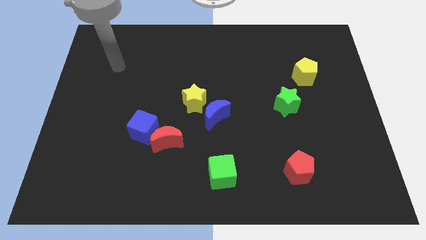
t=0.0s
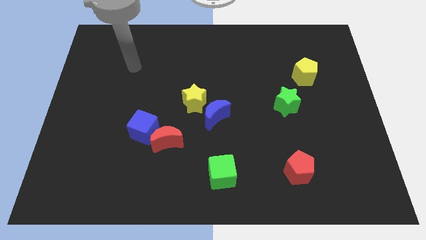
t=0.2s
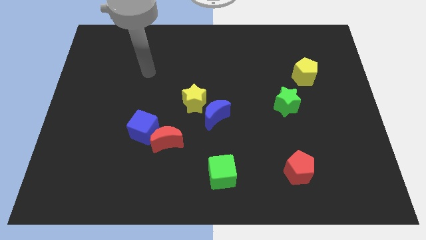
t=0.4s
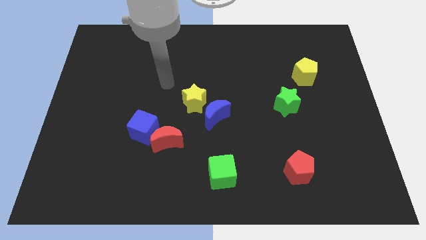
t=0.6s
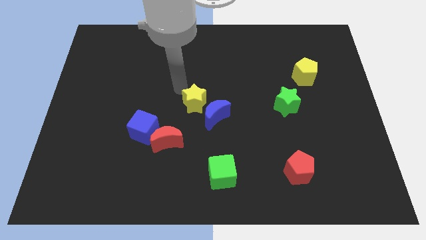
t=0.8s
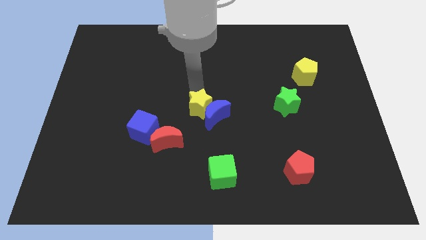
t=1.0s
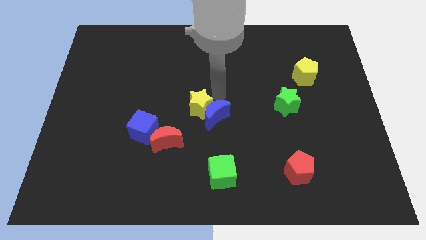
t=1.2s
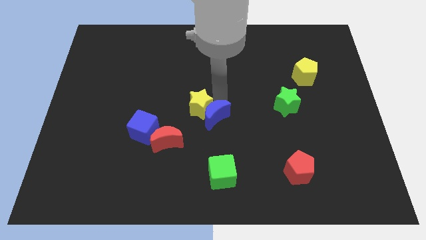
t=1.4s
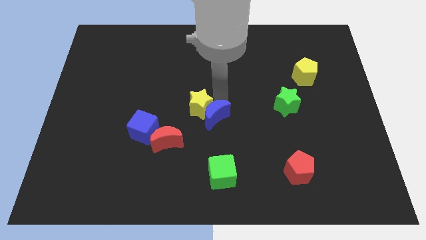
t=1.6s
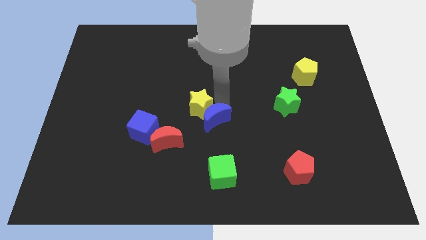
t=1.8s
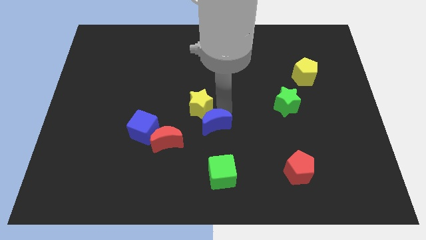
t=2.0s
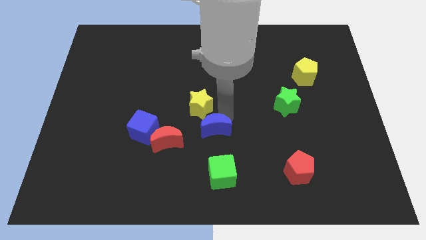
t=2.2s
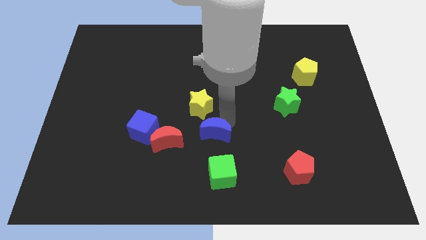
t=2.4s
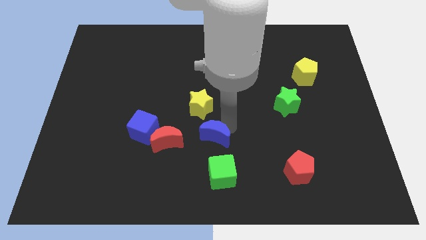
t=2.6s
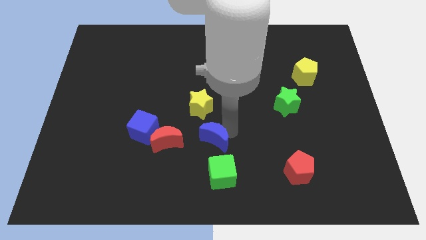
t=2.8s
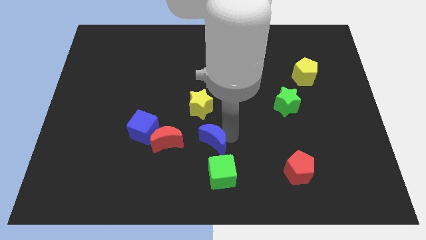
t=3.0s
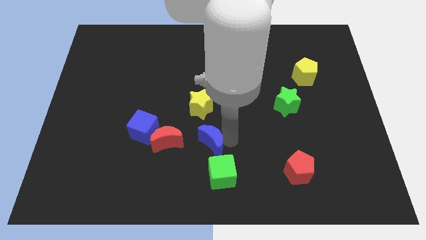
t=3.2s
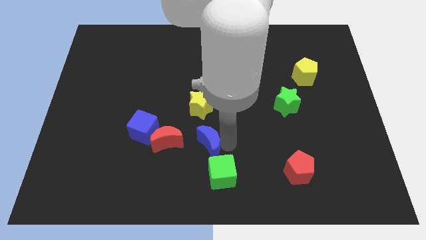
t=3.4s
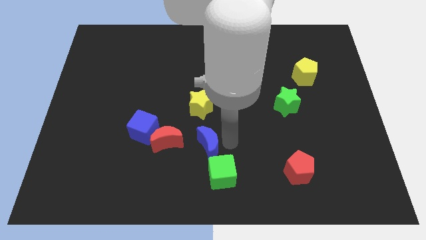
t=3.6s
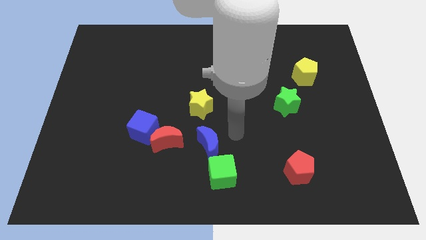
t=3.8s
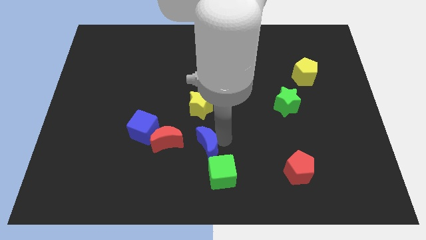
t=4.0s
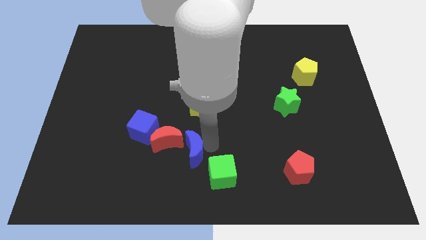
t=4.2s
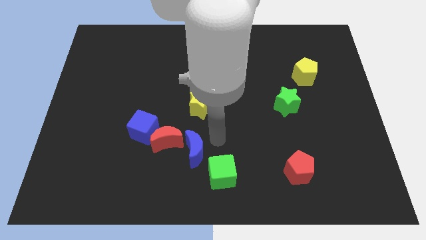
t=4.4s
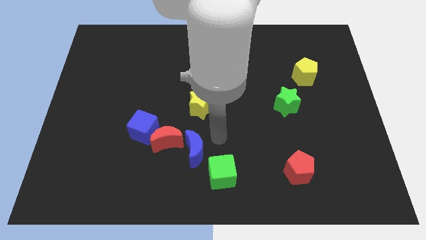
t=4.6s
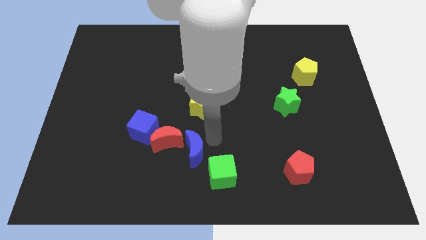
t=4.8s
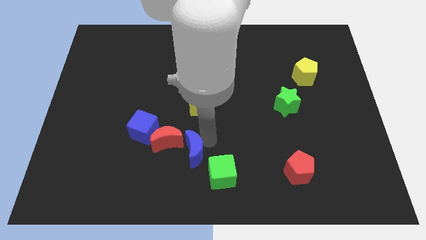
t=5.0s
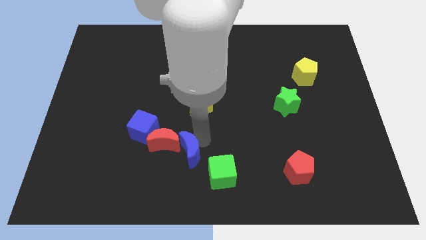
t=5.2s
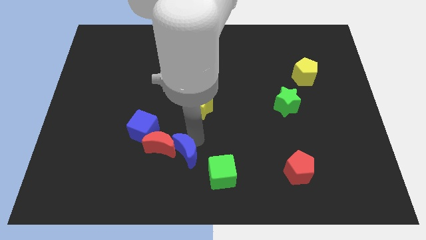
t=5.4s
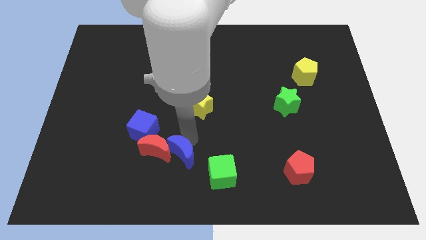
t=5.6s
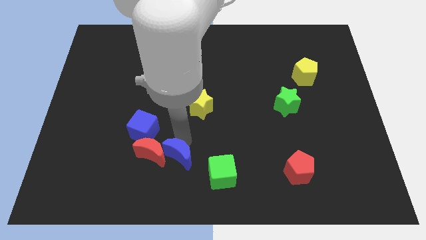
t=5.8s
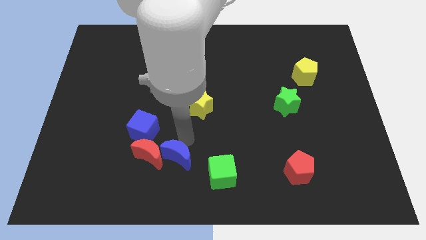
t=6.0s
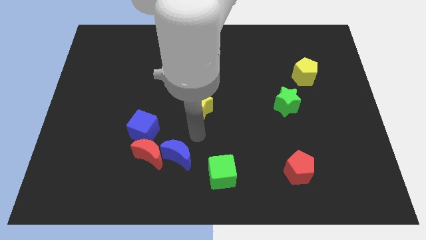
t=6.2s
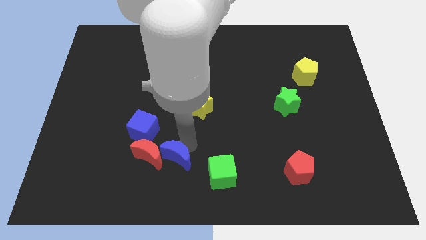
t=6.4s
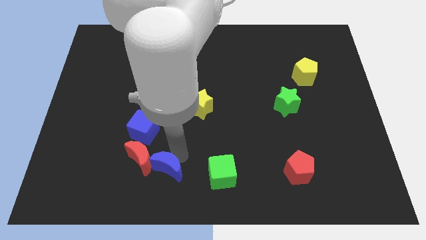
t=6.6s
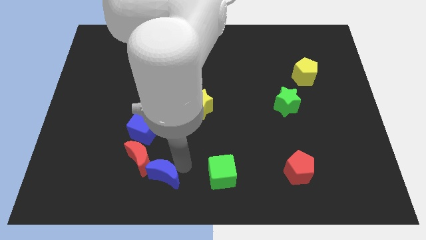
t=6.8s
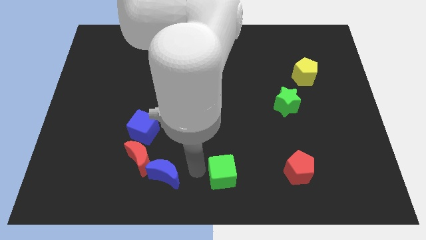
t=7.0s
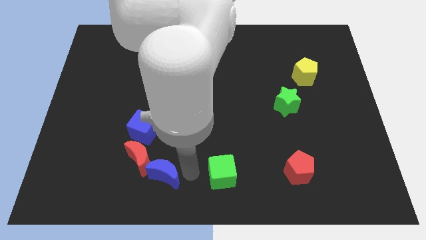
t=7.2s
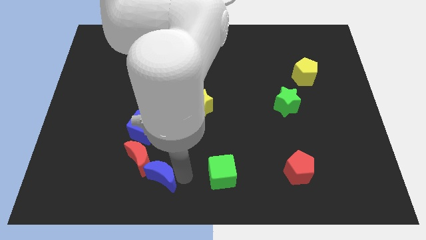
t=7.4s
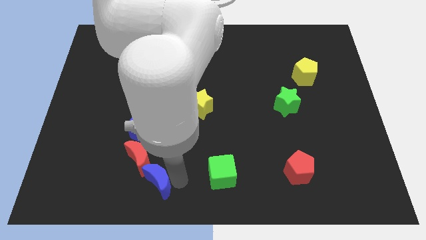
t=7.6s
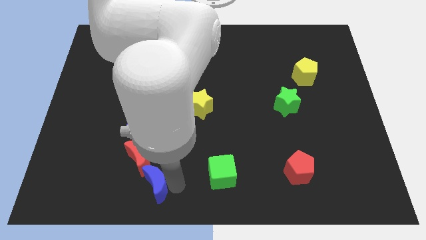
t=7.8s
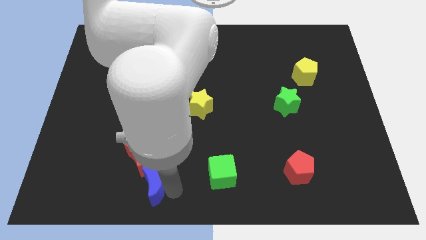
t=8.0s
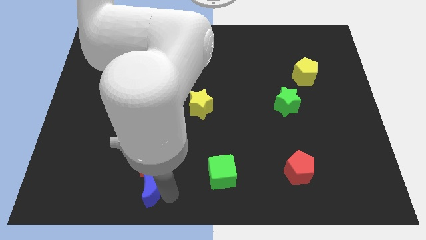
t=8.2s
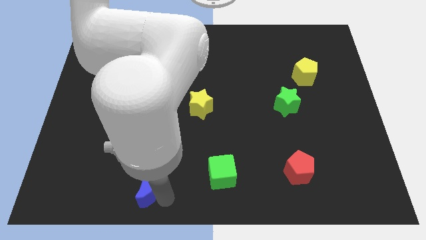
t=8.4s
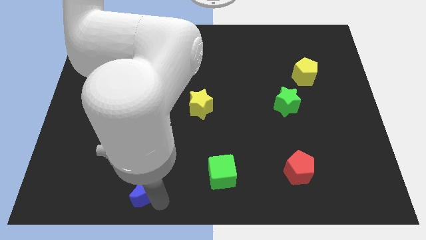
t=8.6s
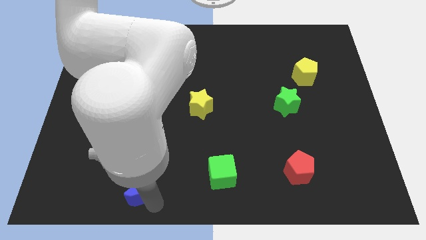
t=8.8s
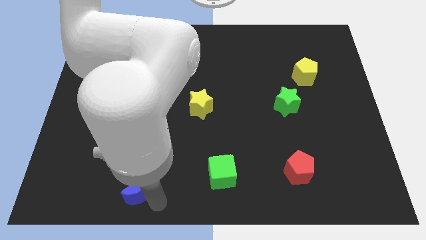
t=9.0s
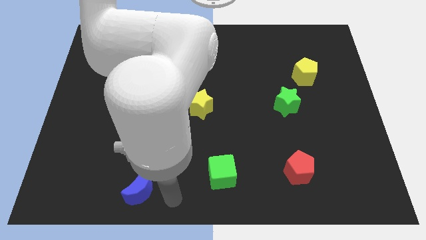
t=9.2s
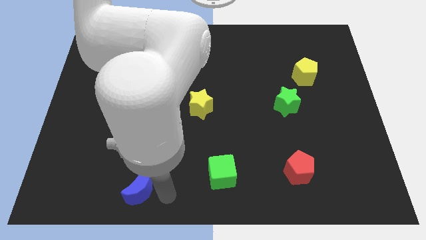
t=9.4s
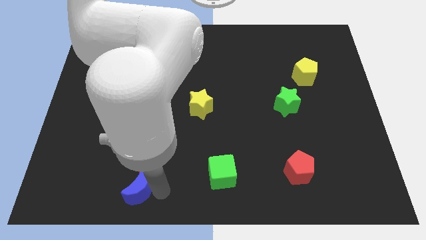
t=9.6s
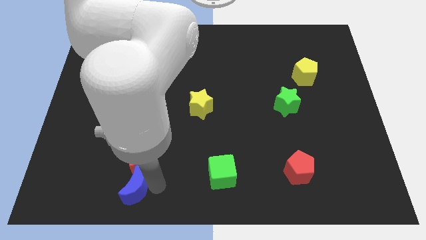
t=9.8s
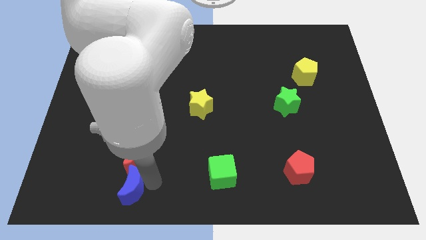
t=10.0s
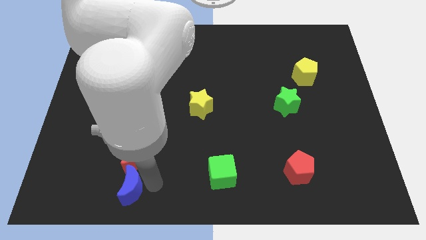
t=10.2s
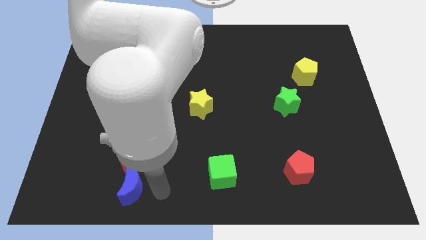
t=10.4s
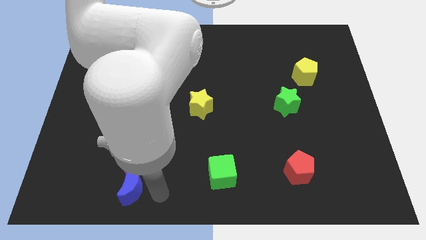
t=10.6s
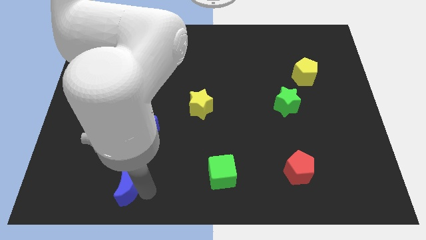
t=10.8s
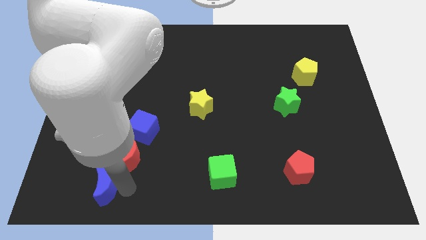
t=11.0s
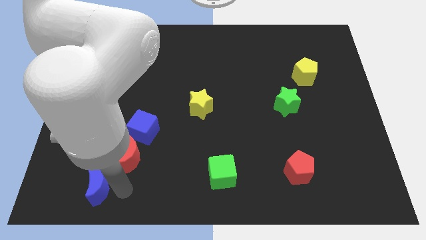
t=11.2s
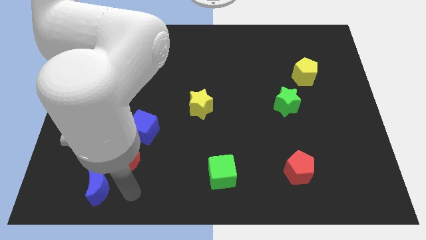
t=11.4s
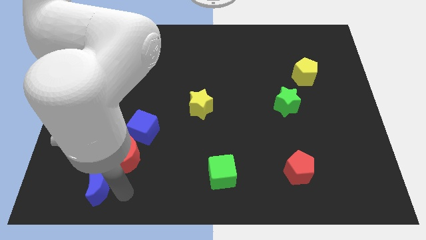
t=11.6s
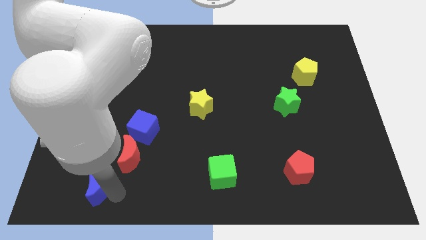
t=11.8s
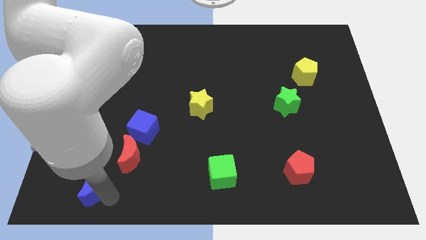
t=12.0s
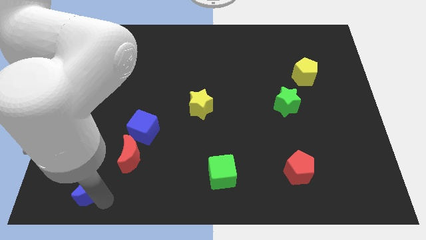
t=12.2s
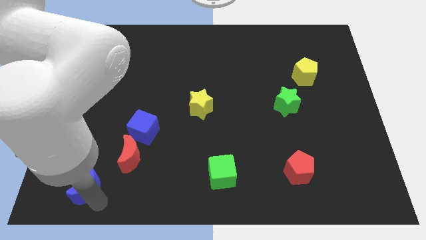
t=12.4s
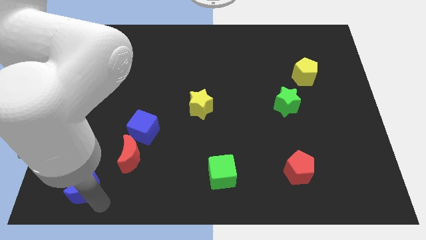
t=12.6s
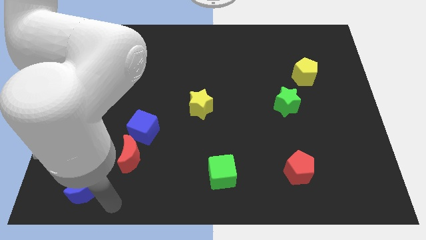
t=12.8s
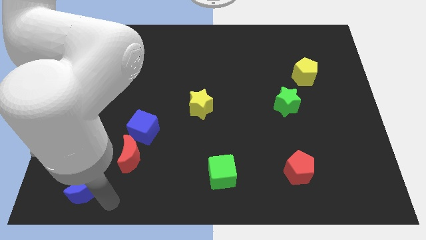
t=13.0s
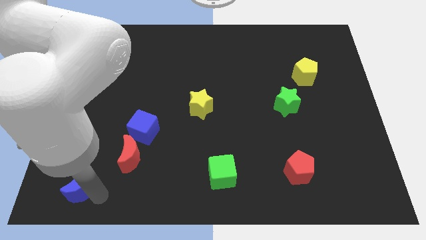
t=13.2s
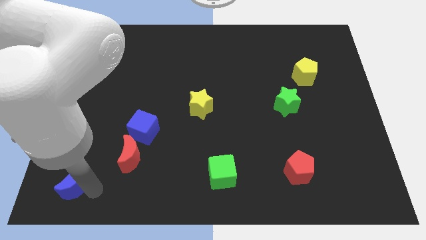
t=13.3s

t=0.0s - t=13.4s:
move the blue moon to the lower left corner
